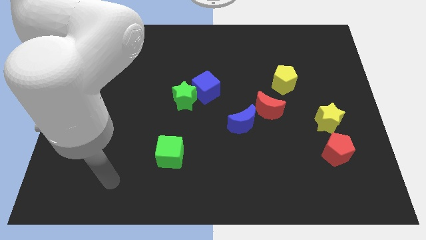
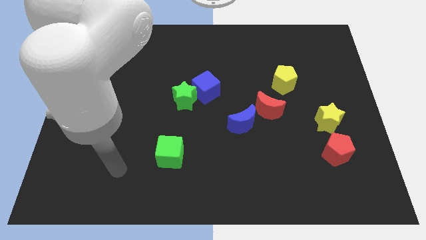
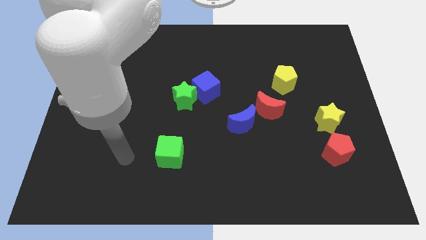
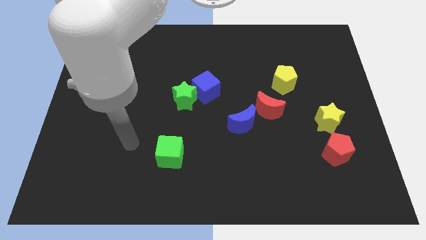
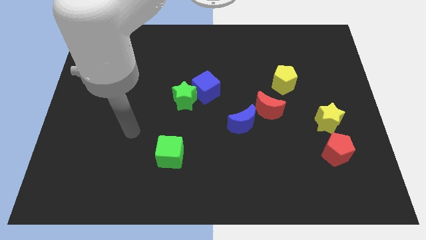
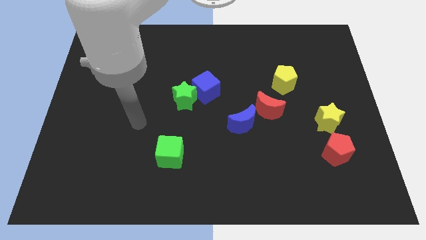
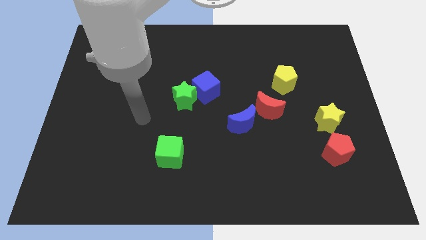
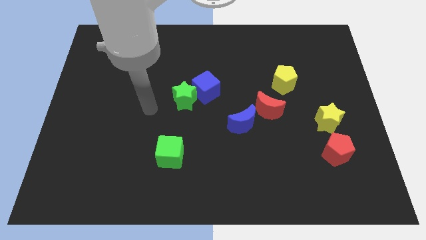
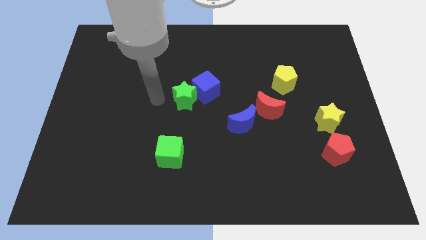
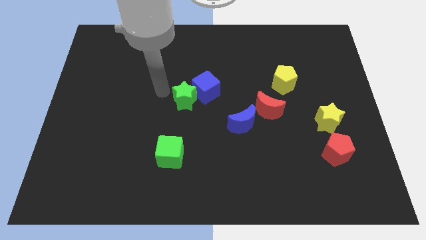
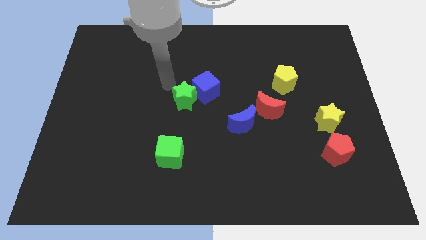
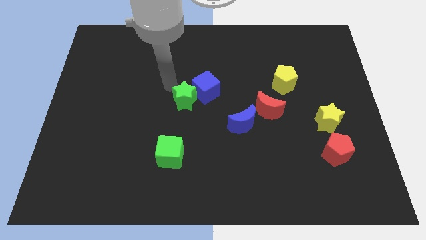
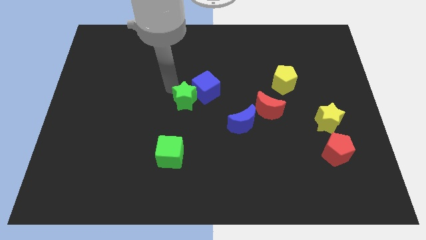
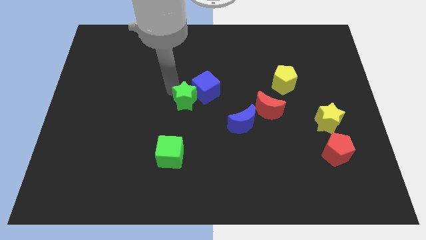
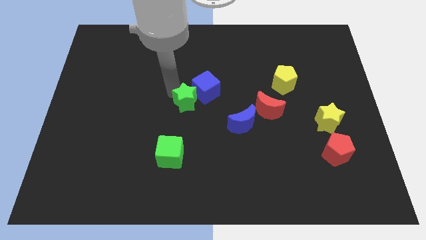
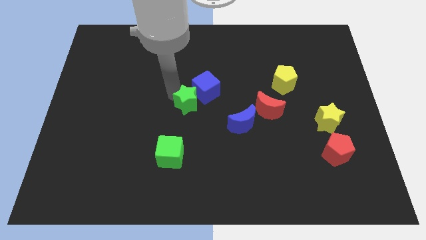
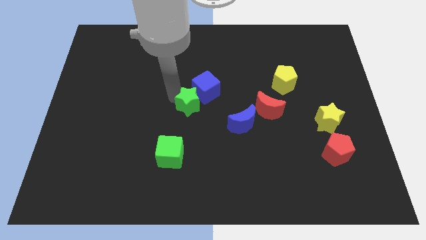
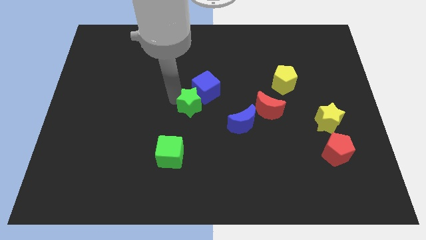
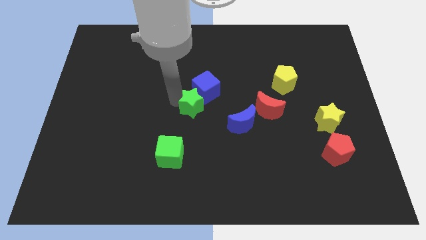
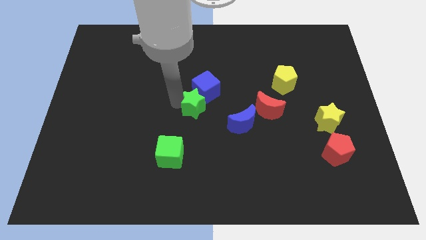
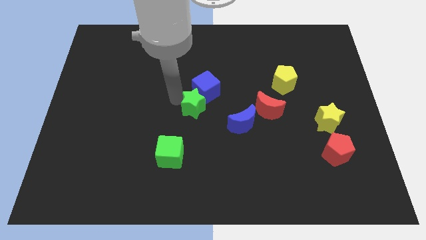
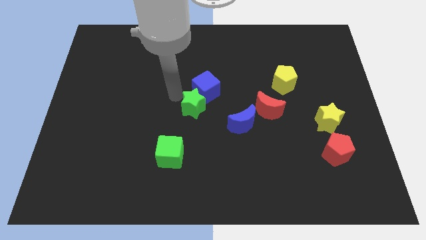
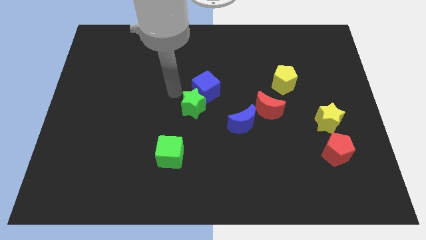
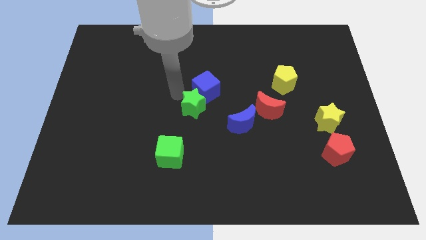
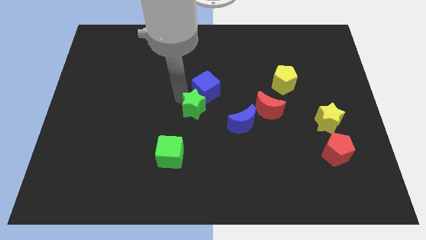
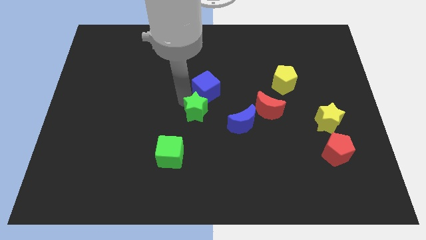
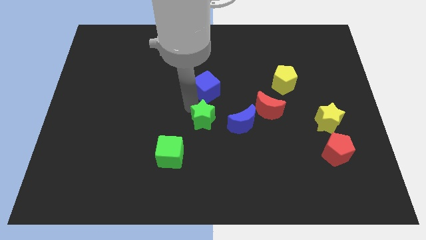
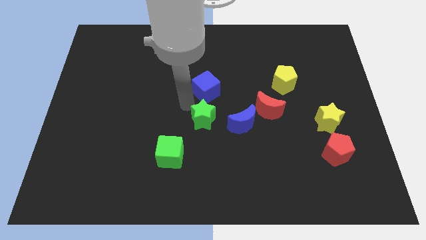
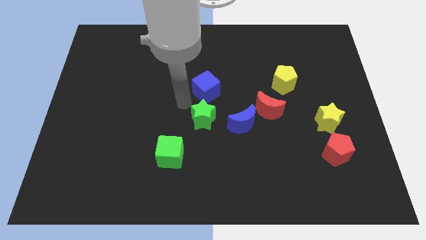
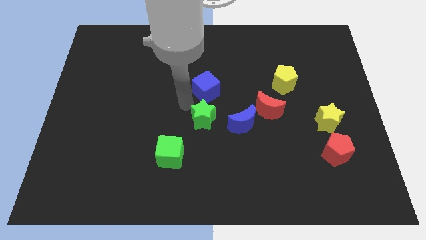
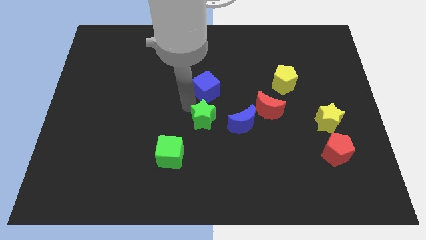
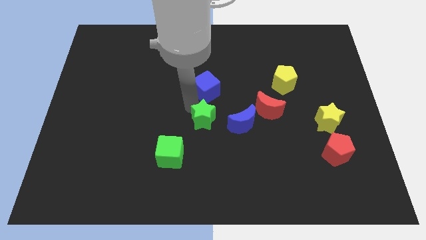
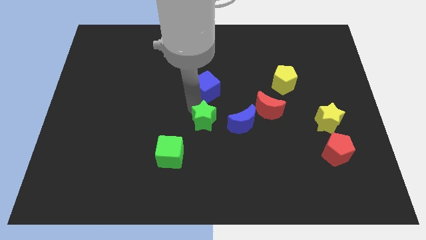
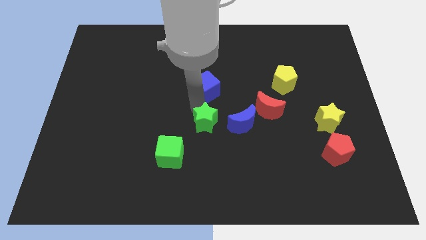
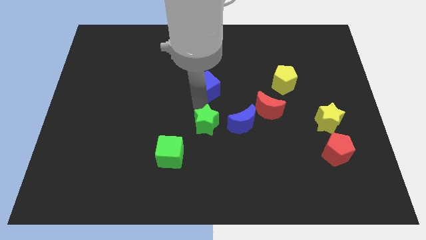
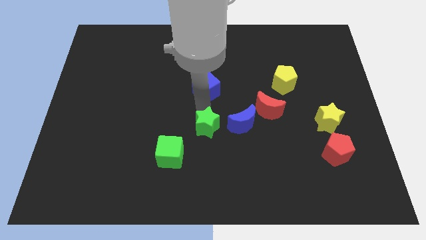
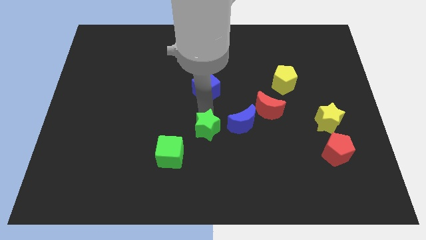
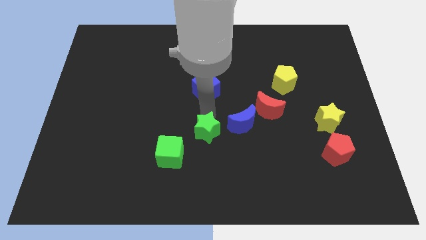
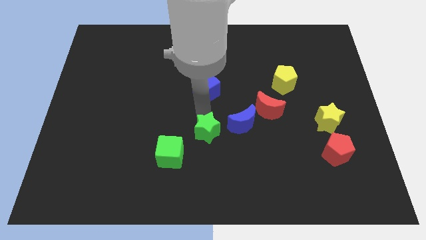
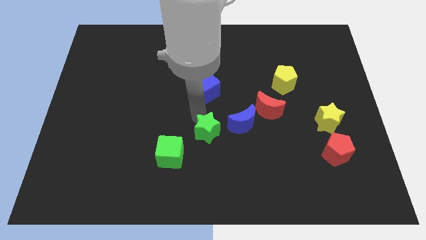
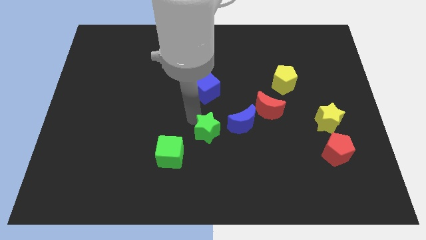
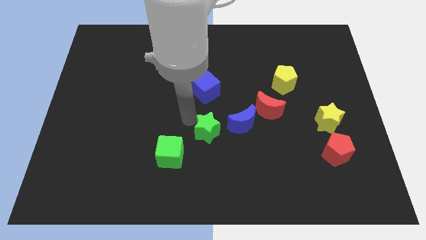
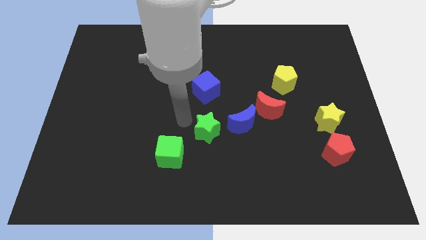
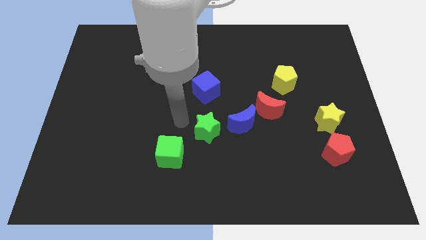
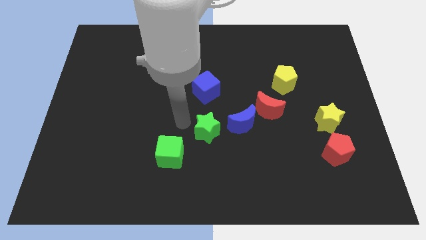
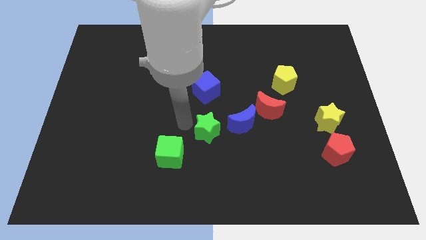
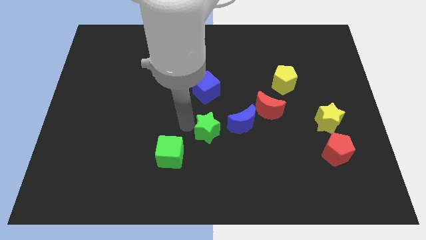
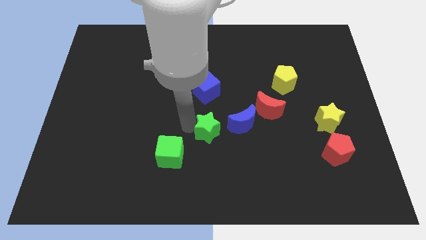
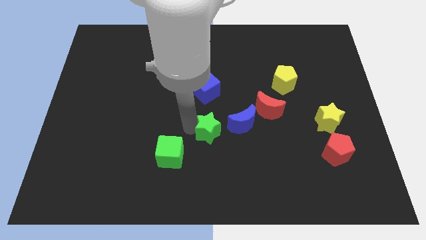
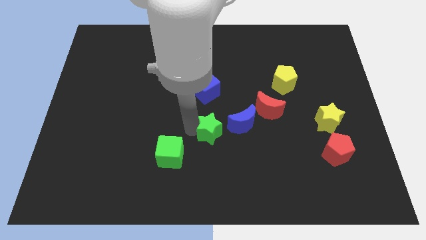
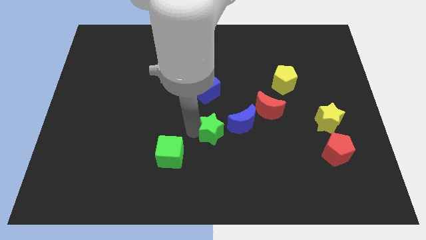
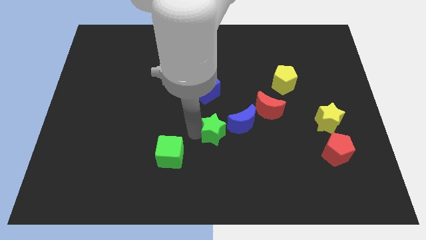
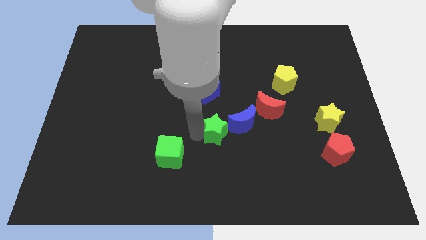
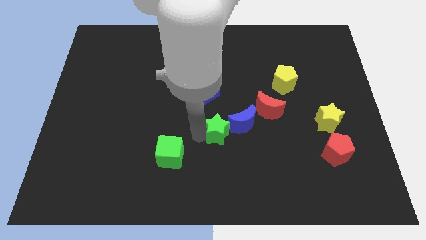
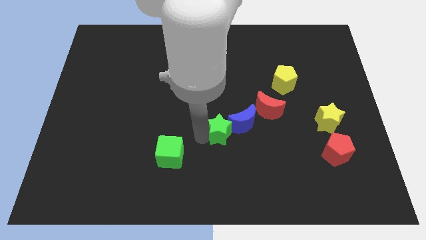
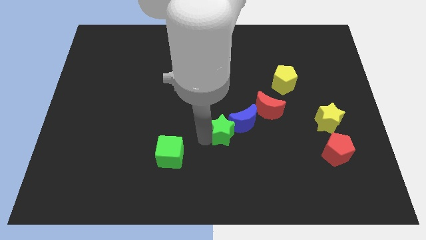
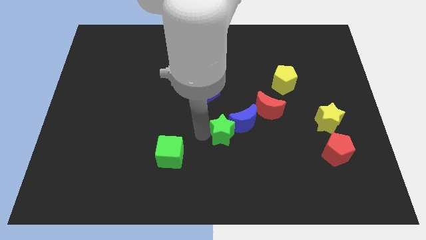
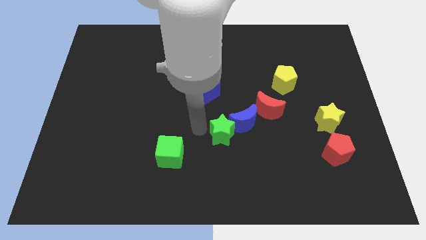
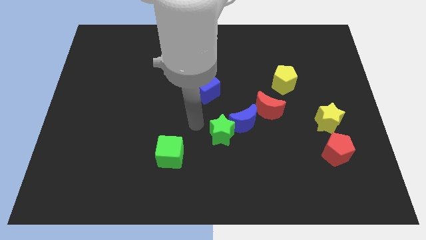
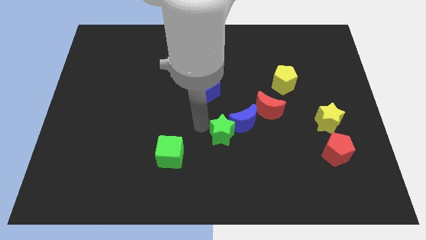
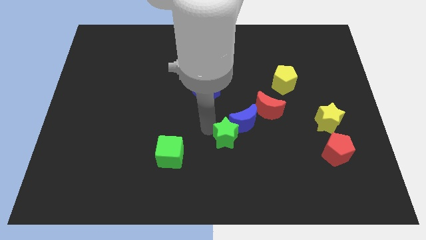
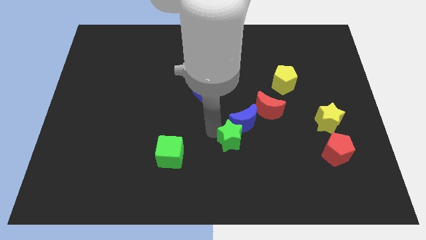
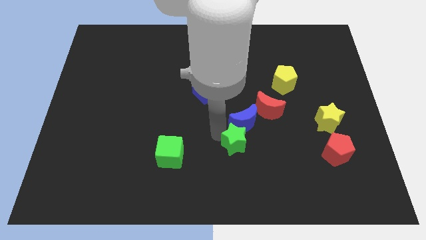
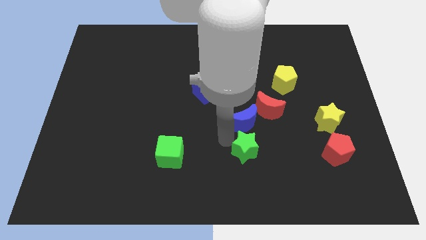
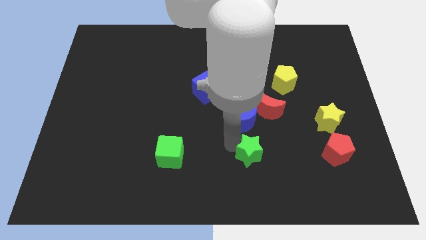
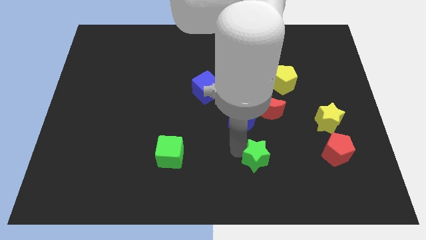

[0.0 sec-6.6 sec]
slide the green star below the red moon

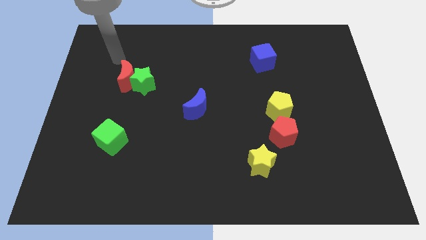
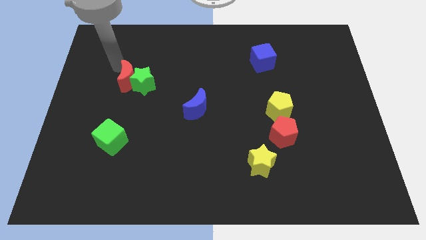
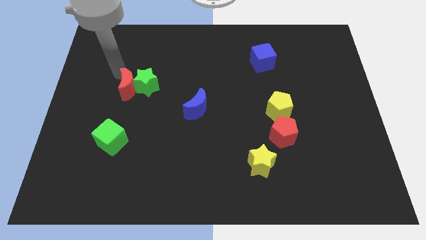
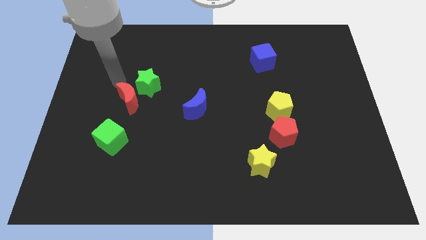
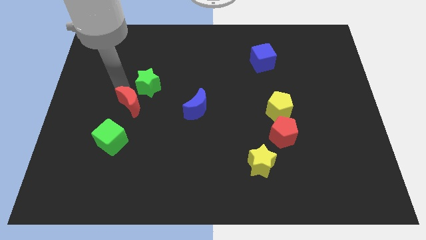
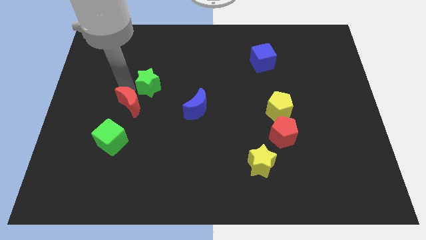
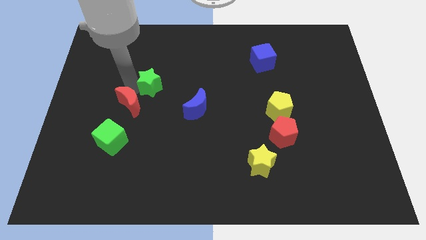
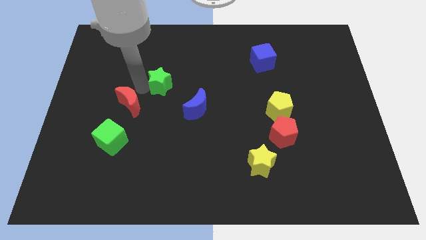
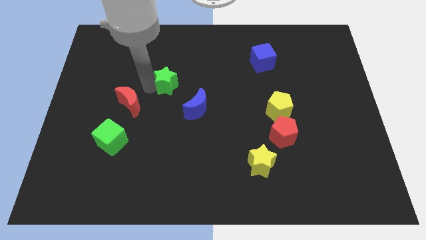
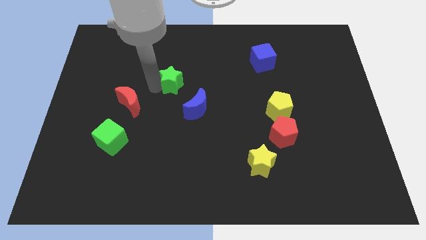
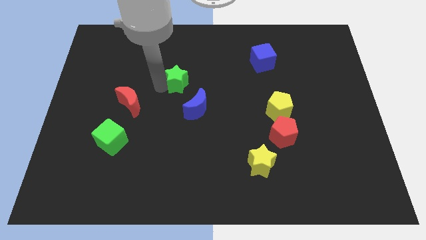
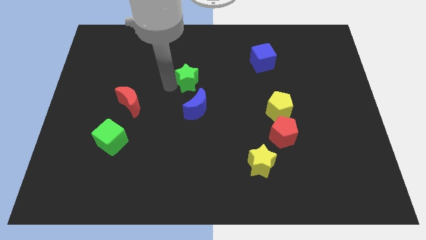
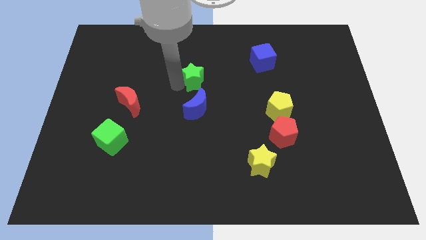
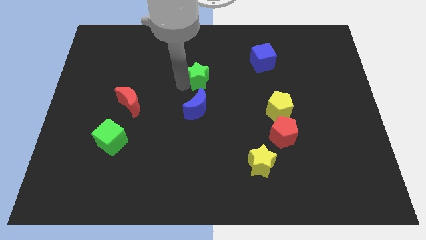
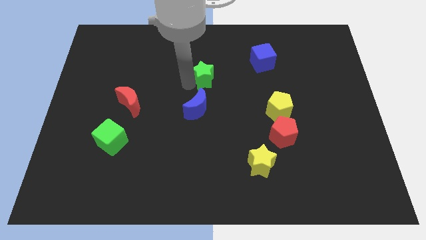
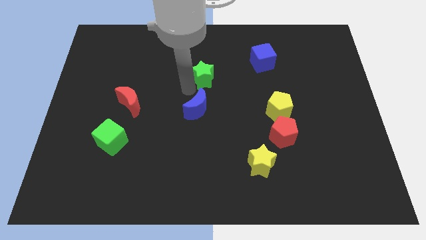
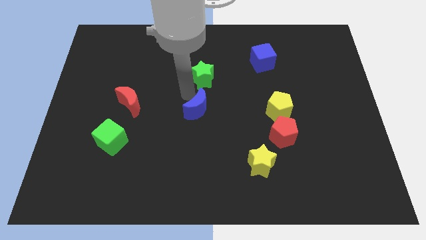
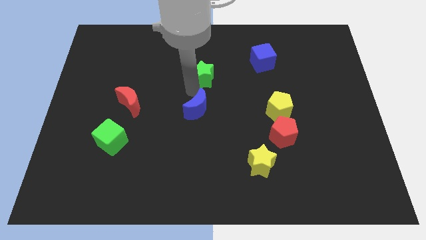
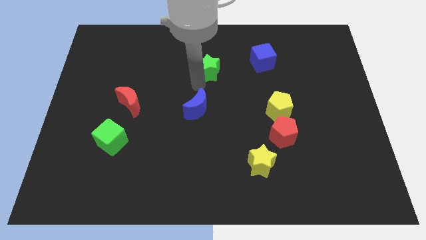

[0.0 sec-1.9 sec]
push the green star just left of the blue cube
